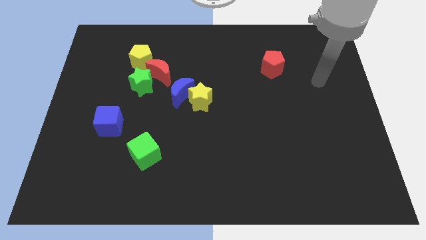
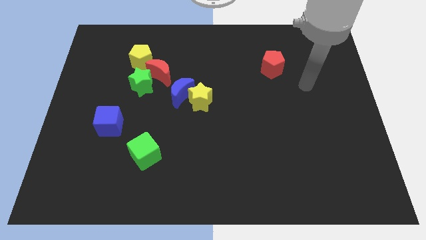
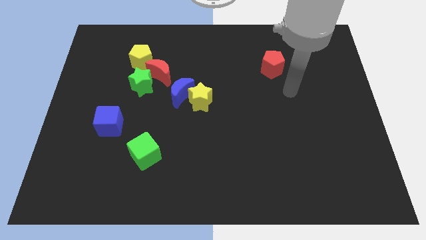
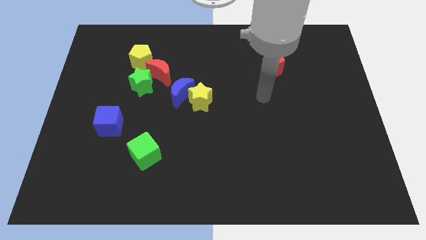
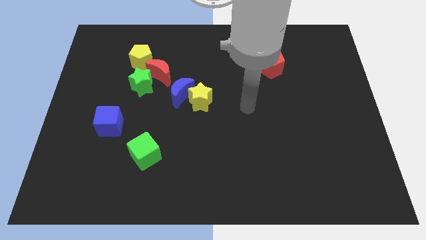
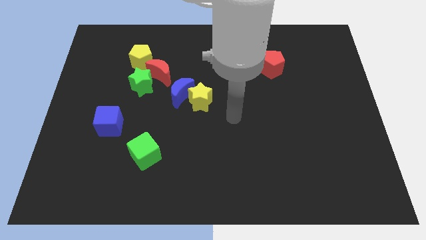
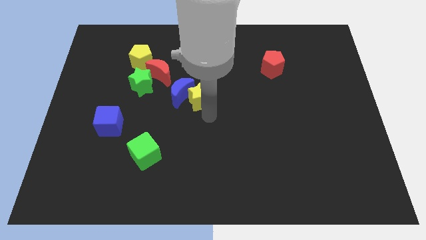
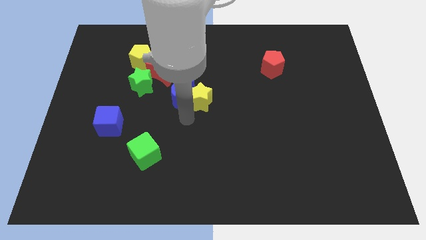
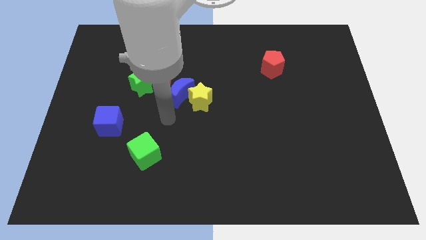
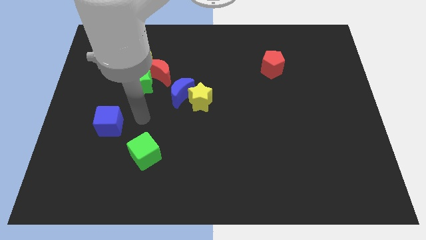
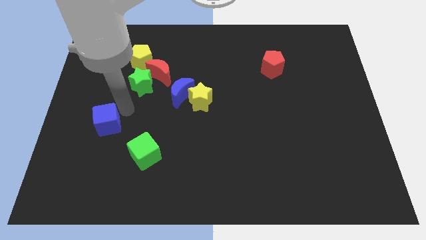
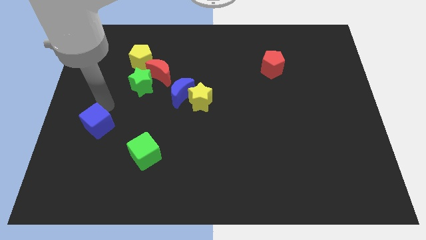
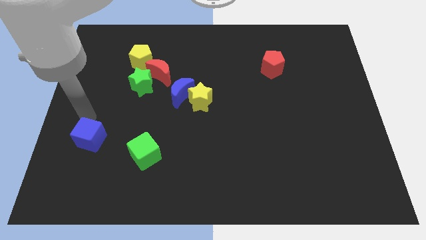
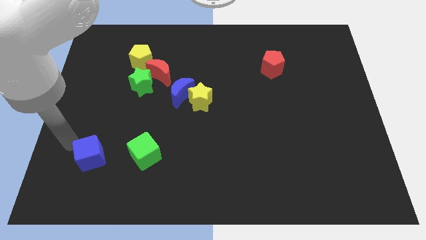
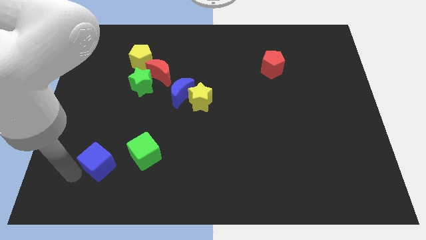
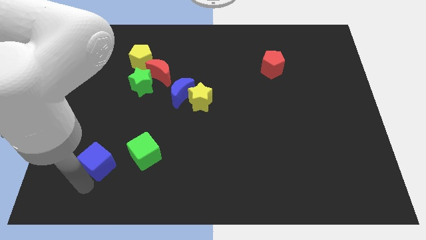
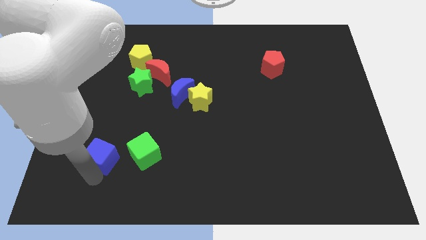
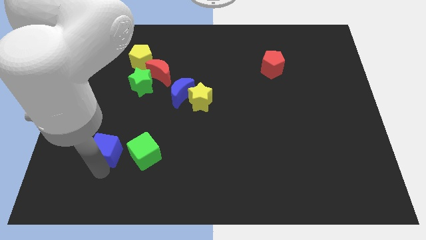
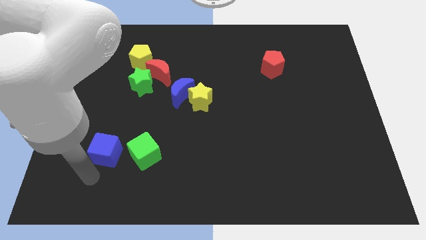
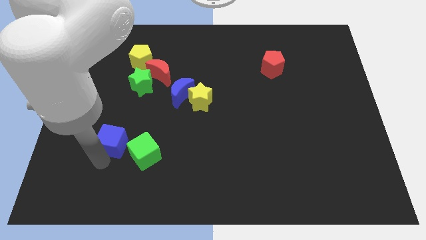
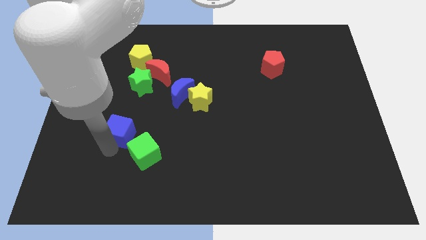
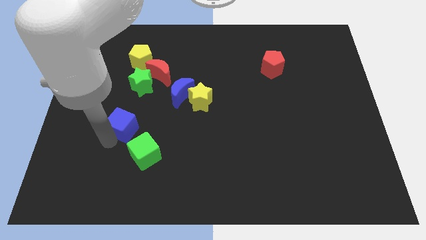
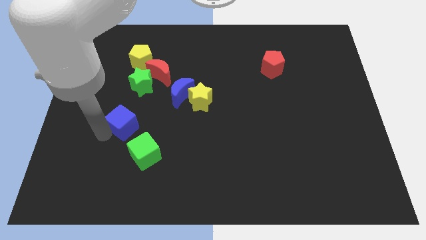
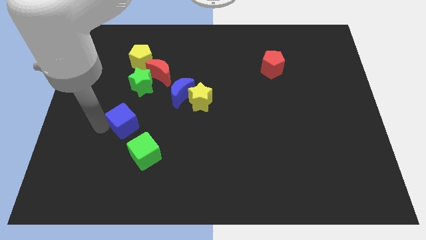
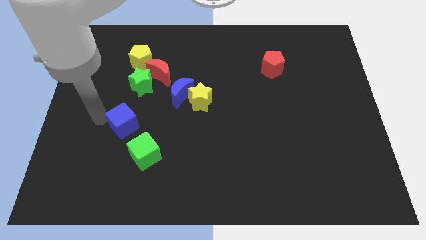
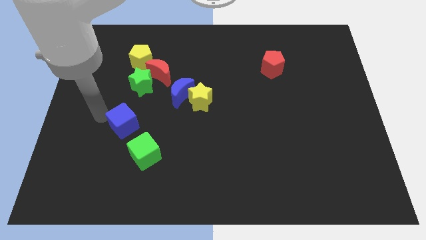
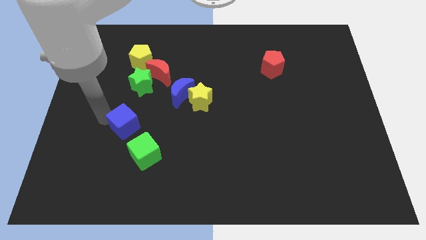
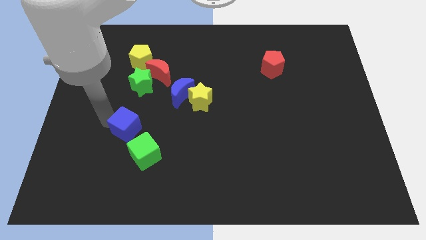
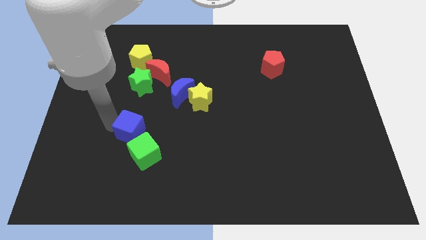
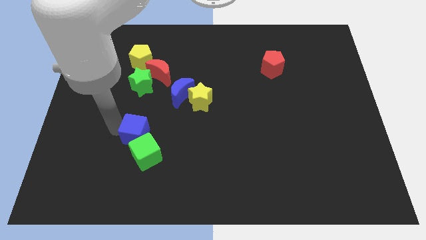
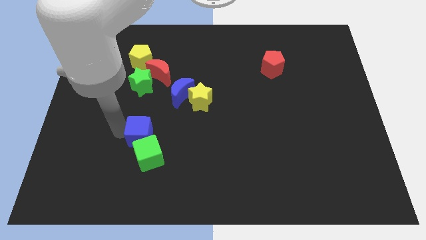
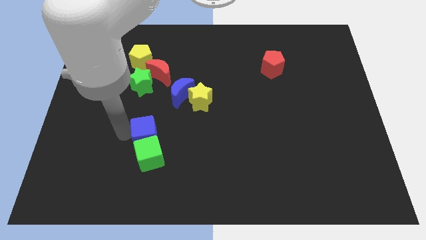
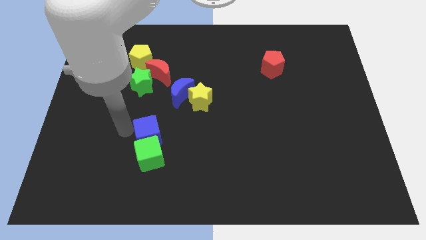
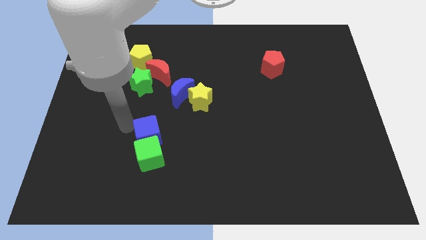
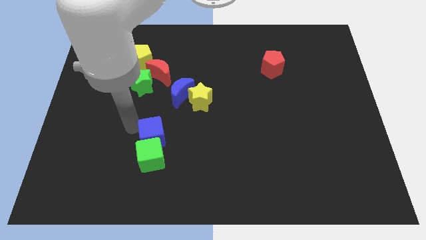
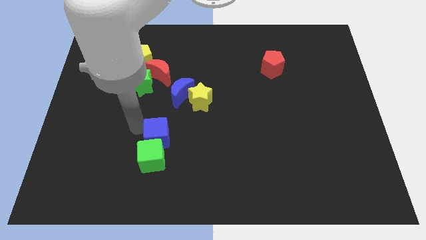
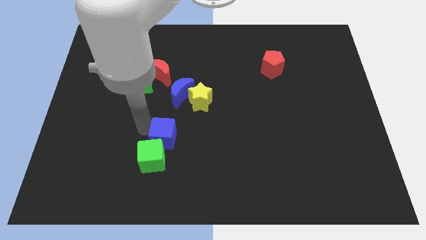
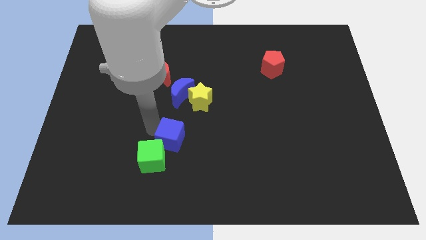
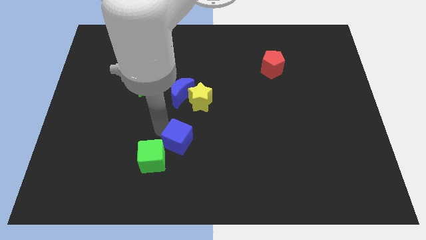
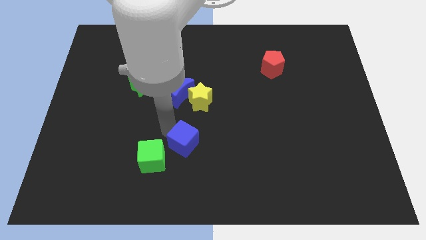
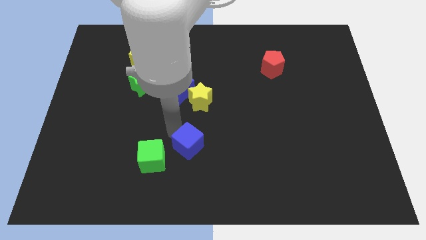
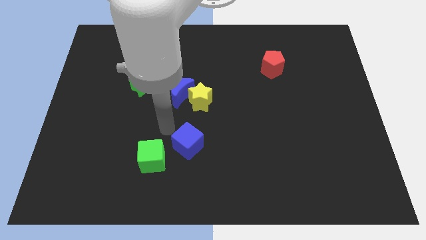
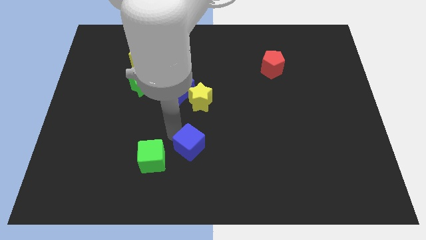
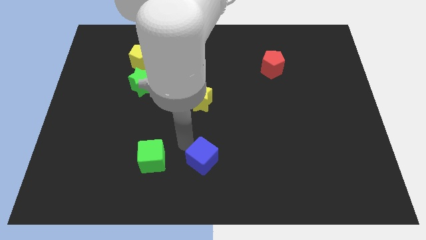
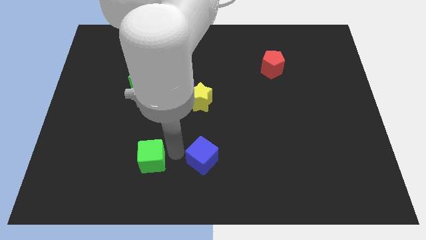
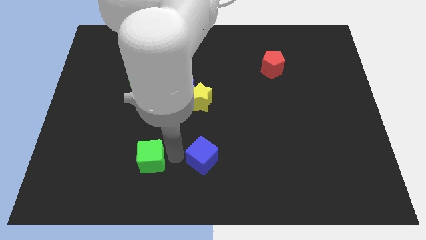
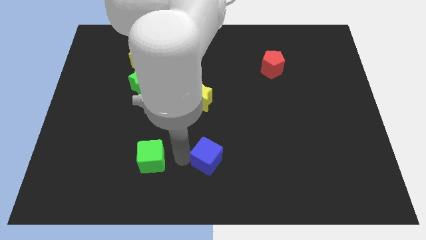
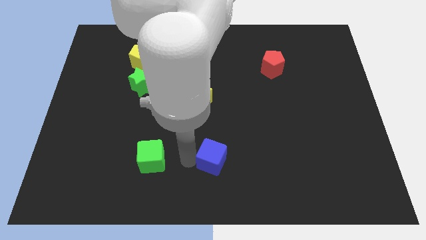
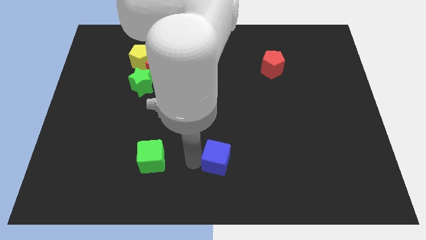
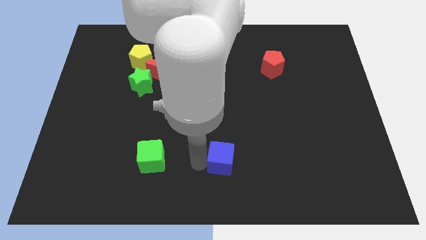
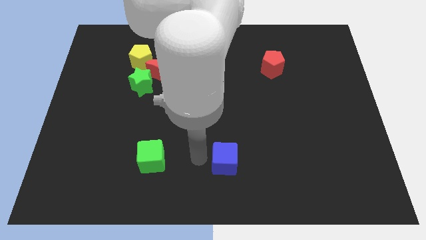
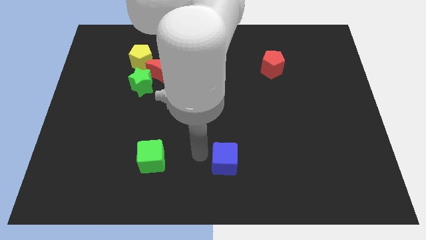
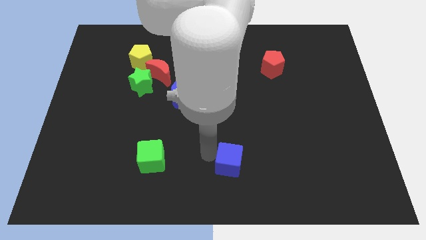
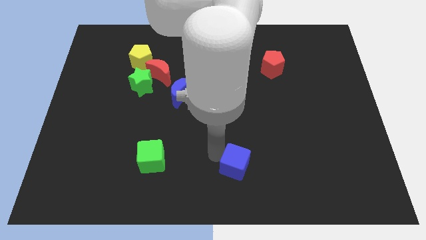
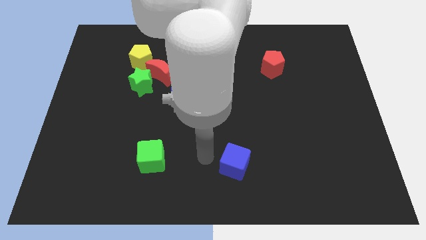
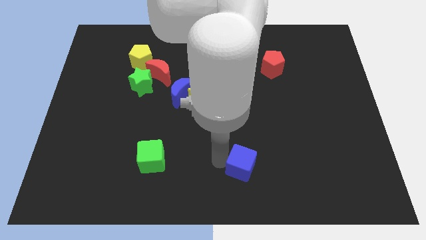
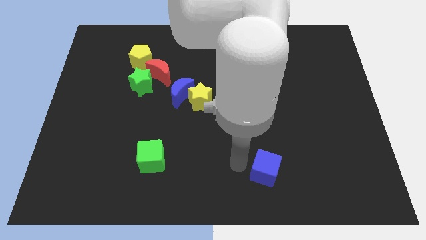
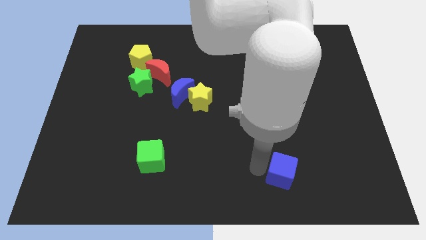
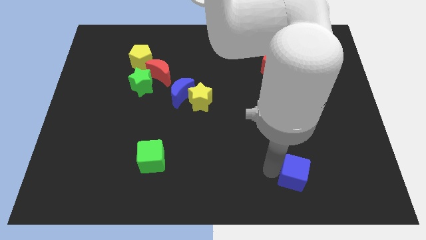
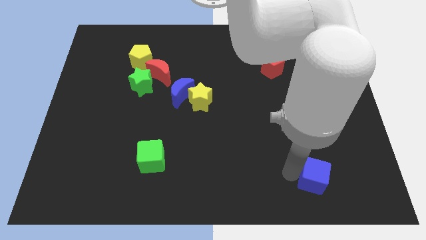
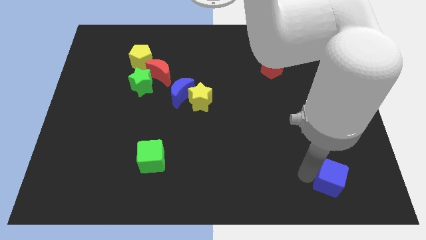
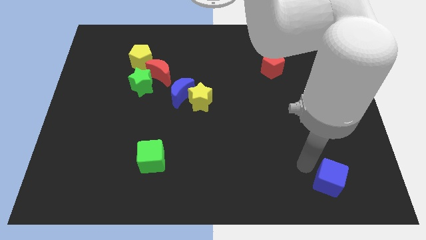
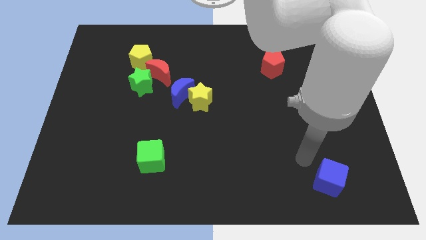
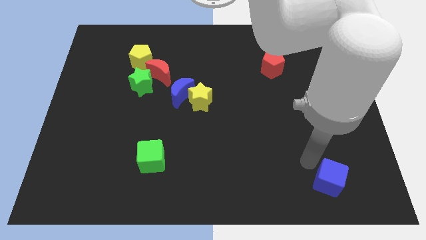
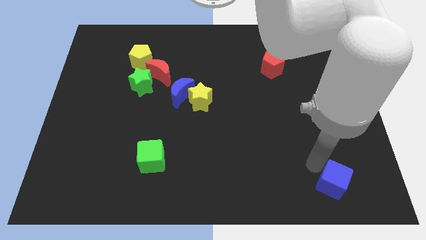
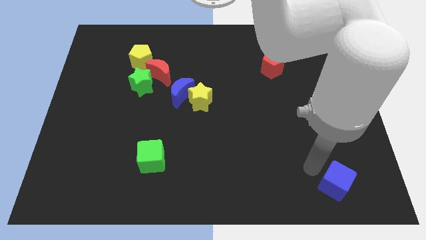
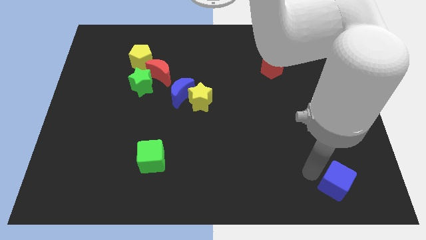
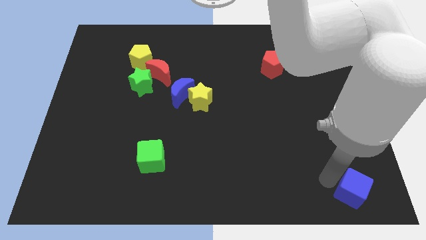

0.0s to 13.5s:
move the blue cube to the bottom right of the board
